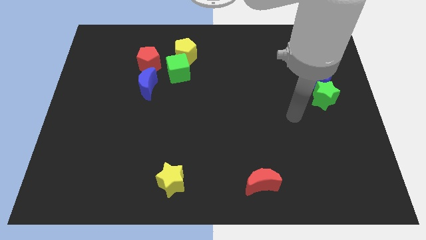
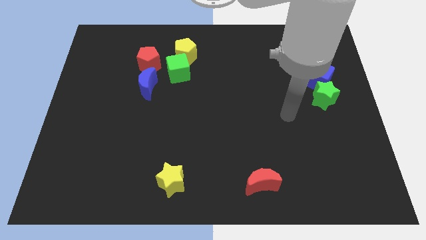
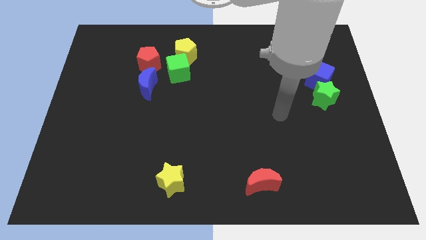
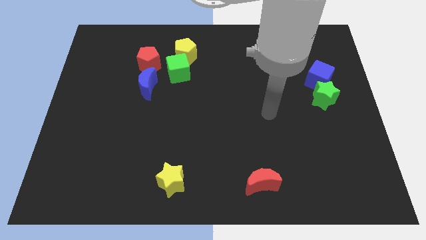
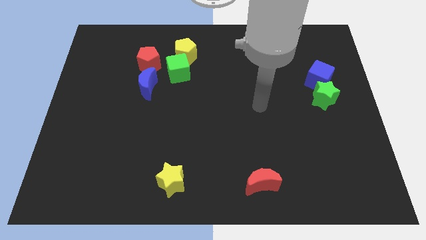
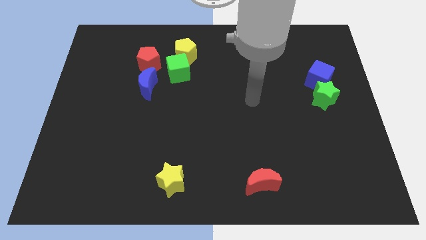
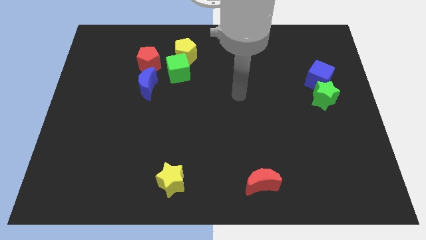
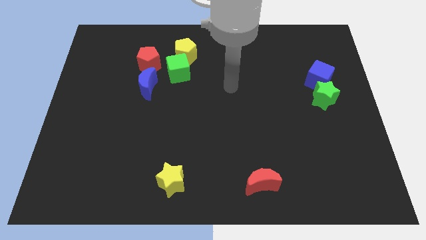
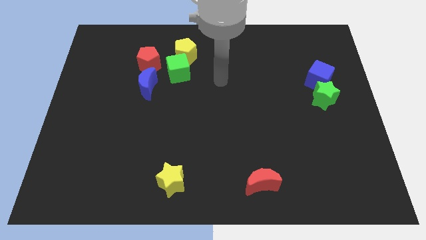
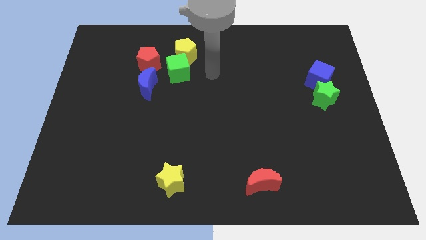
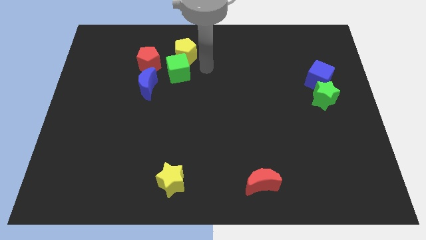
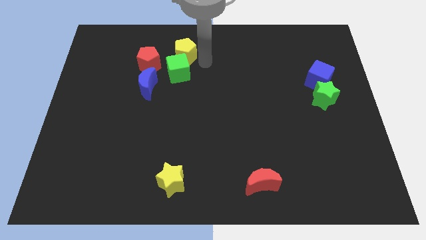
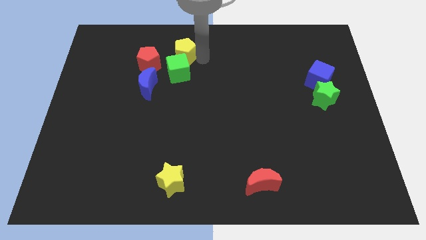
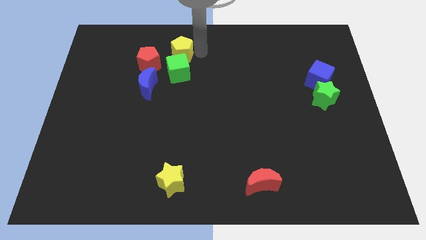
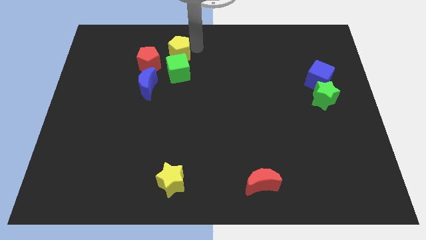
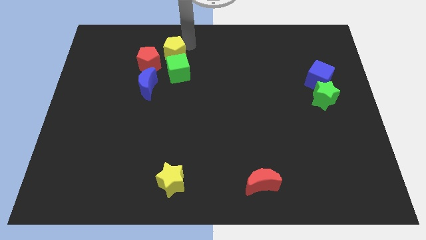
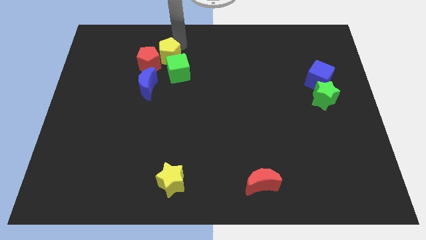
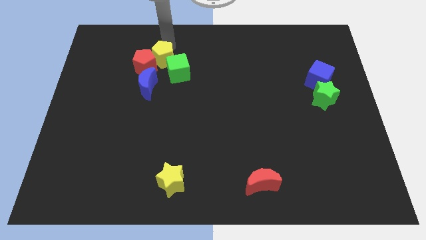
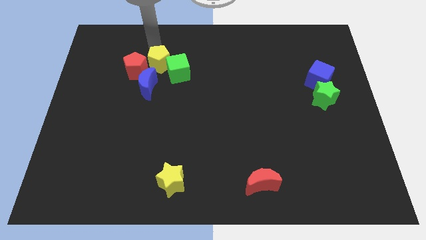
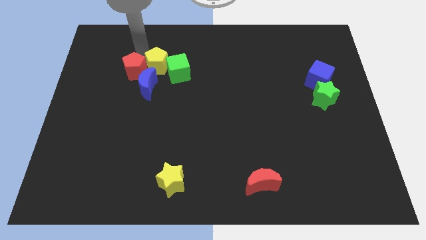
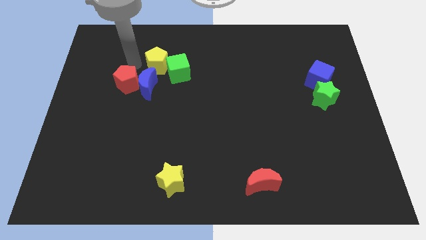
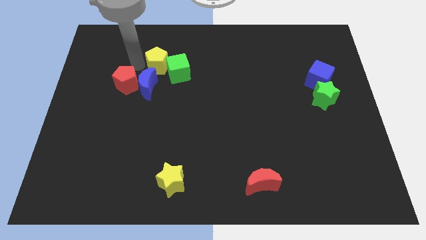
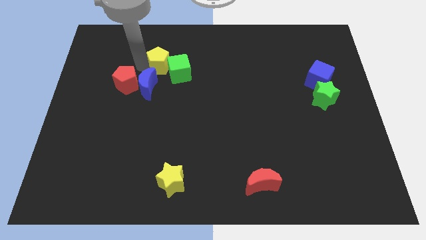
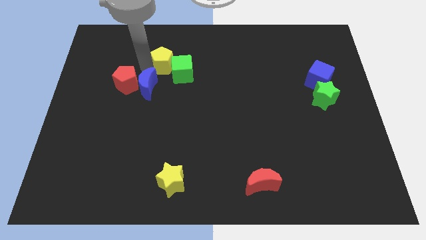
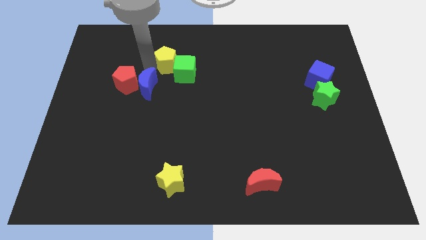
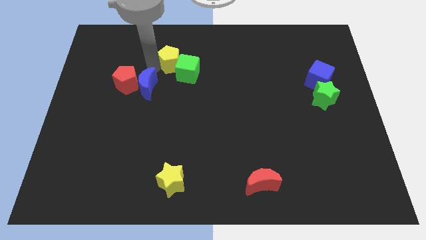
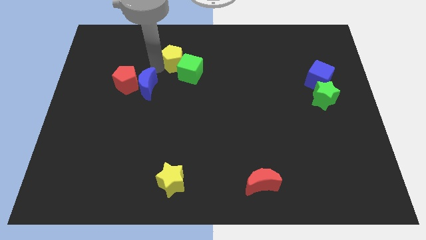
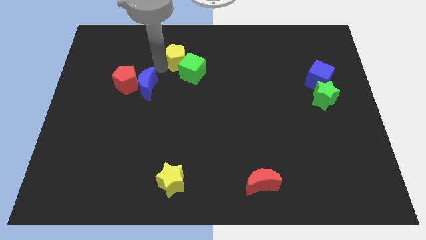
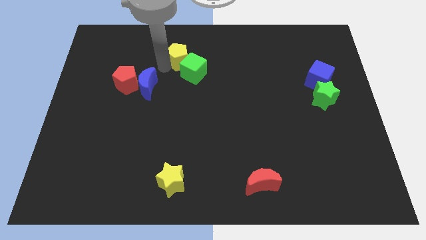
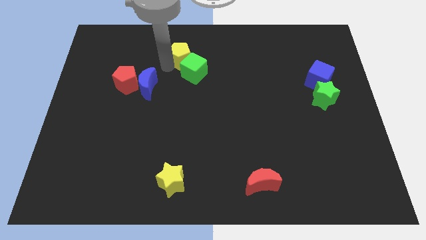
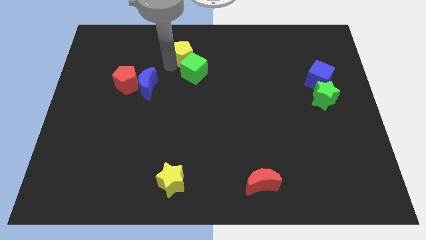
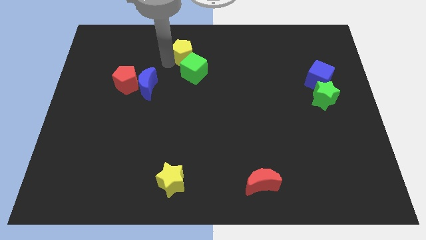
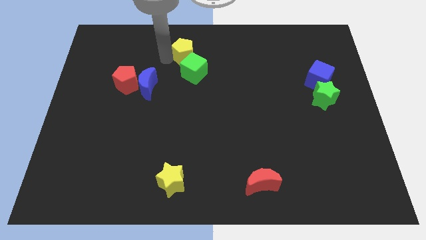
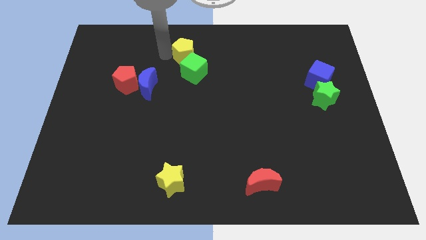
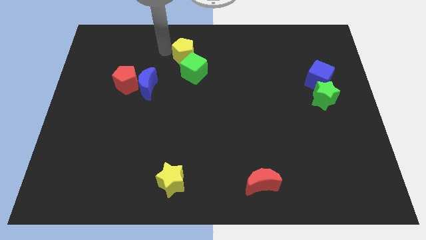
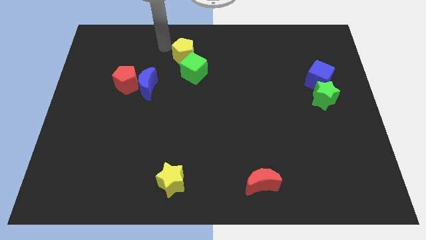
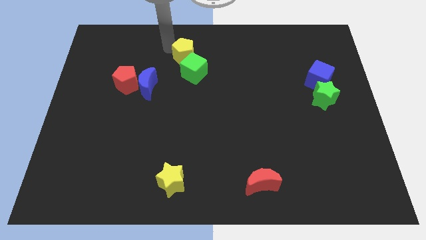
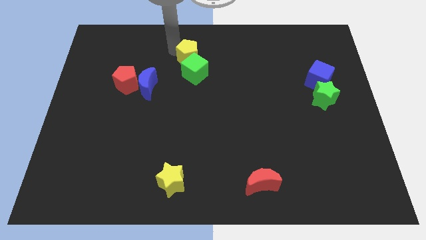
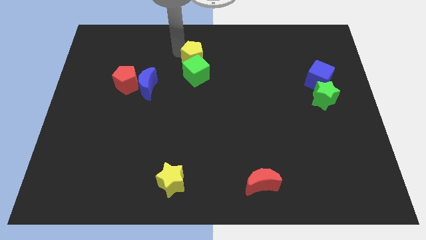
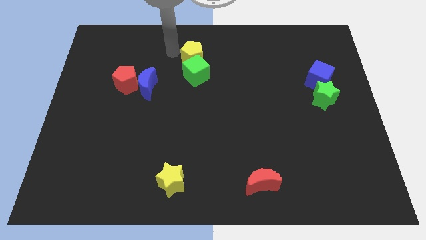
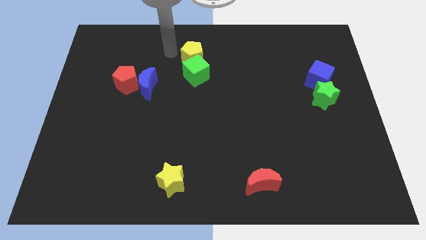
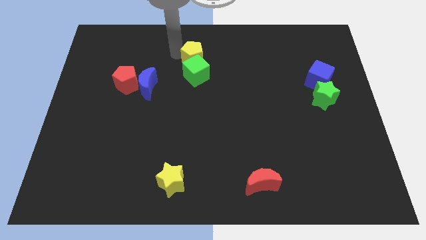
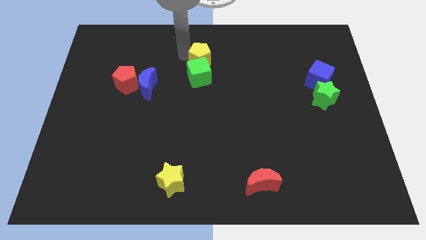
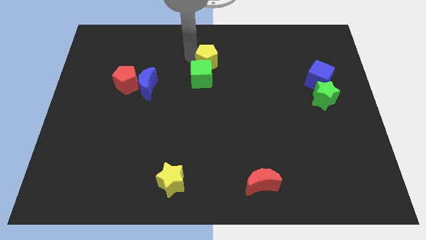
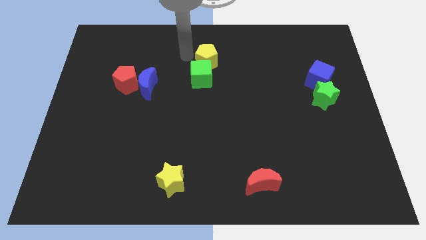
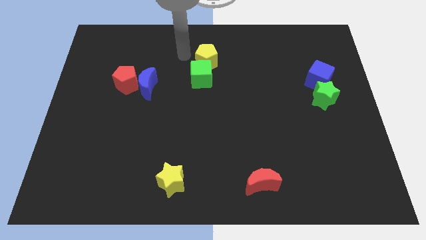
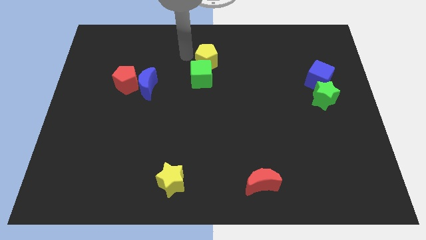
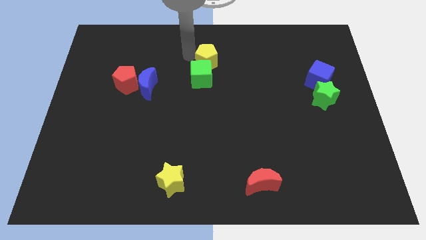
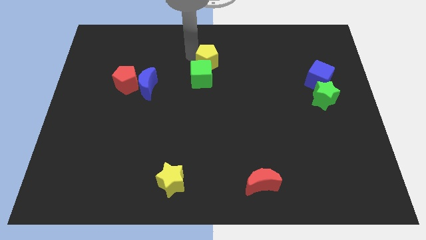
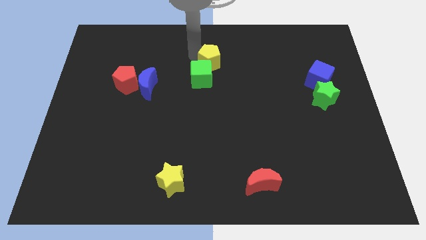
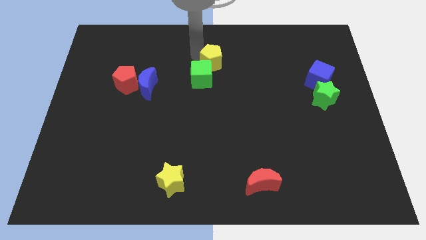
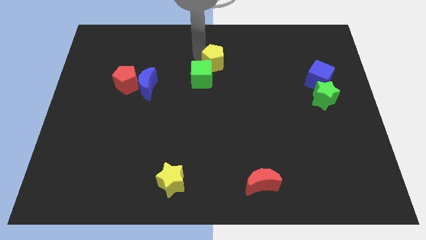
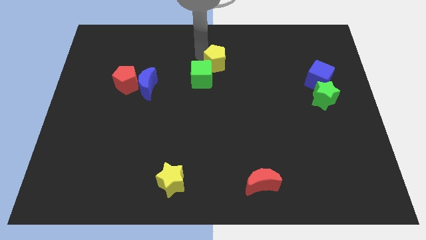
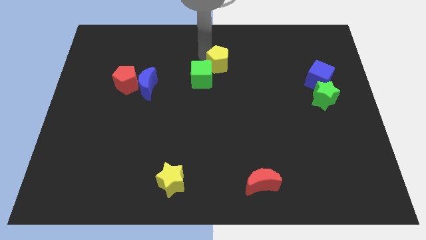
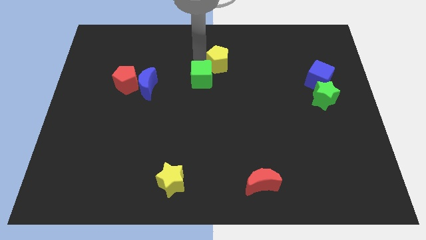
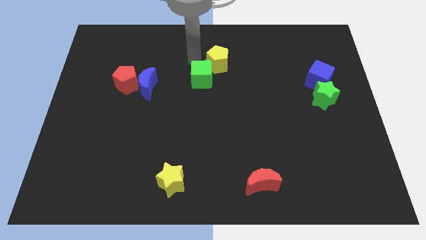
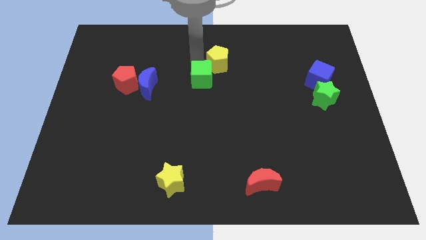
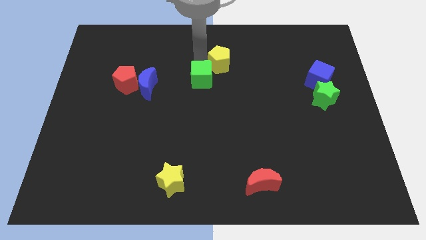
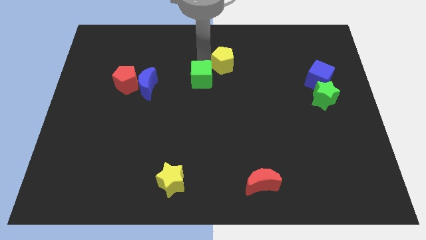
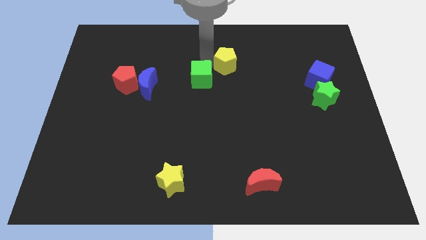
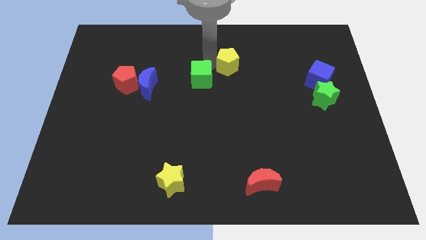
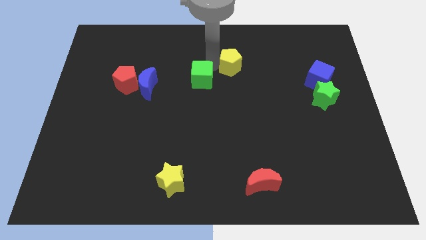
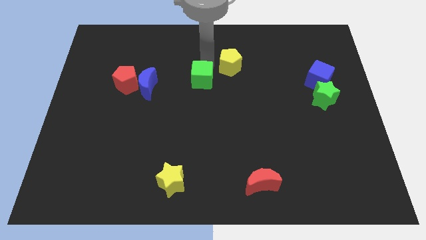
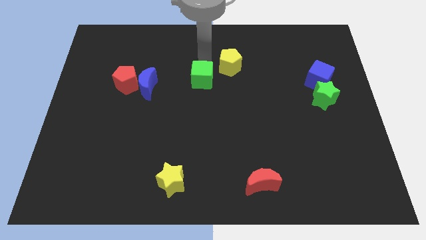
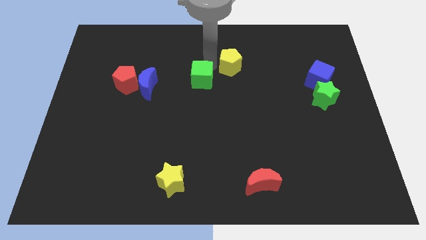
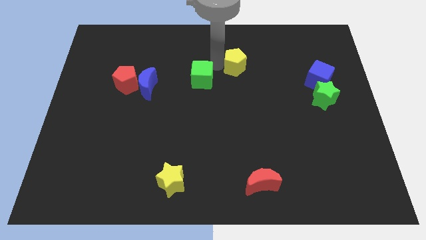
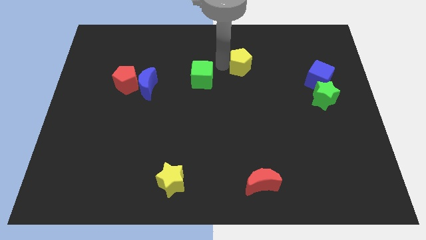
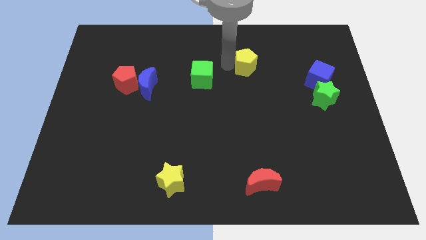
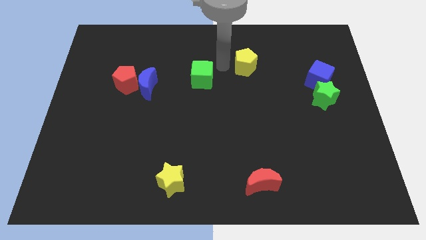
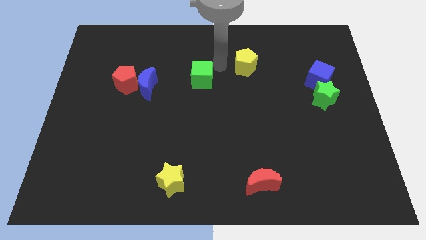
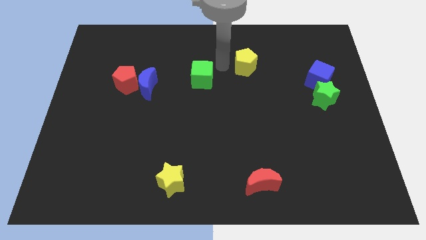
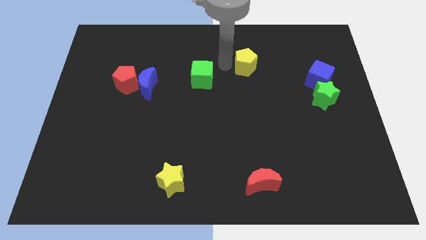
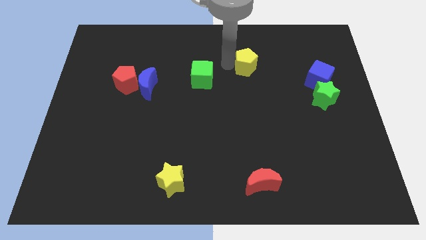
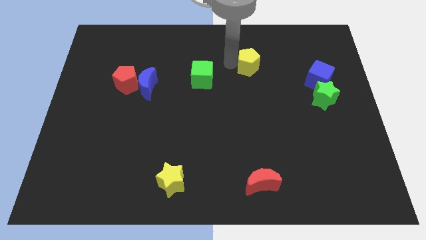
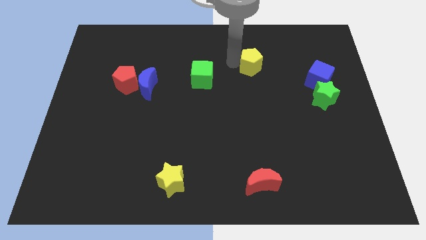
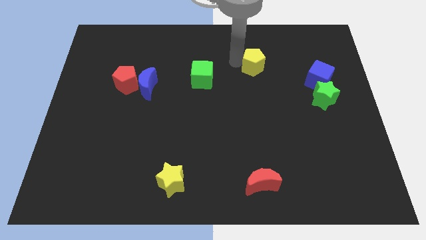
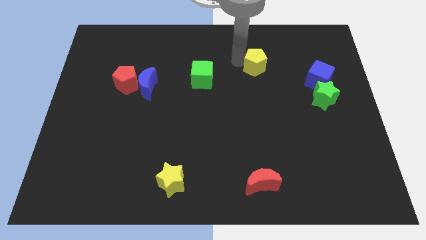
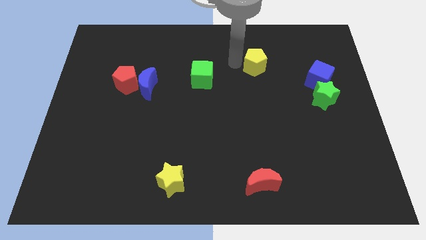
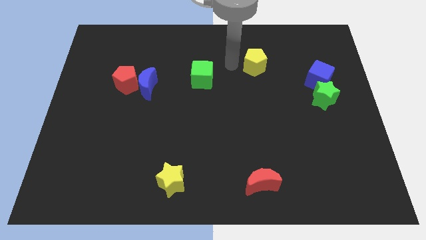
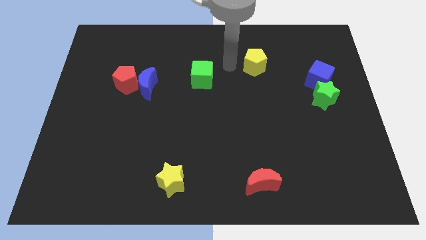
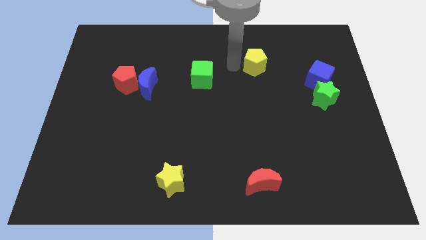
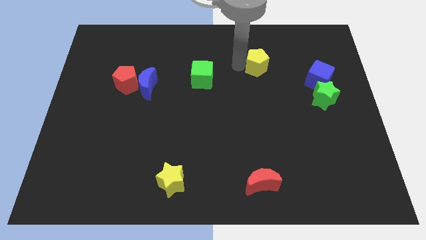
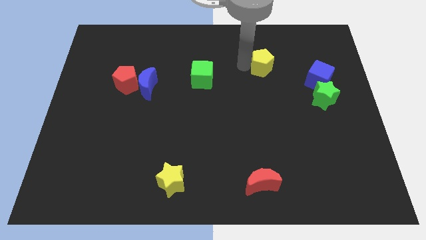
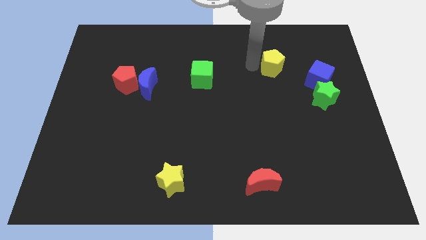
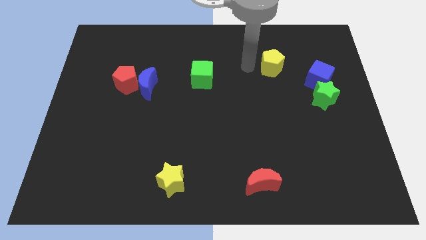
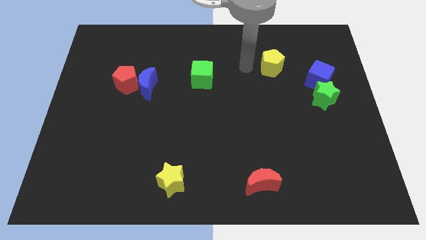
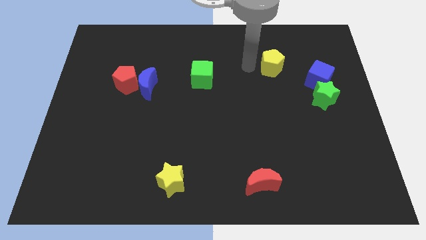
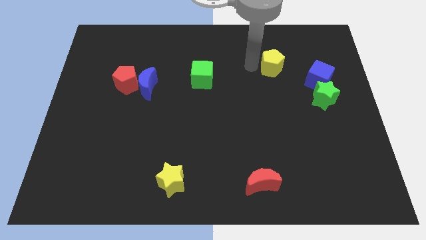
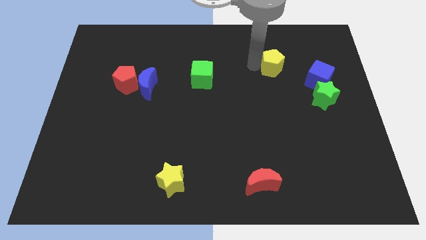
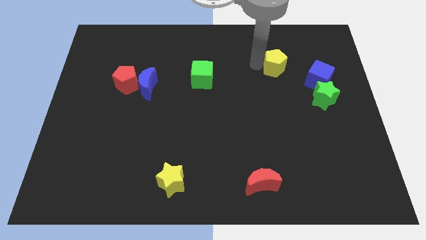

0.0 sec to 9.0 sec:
put the yellow pentagon to the top left side of the blue cube
